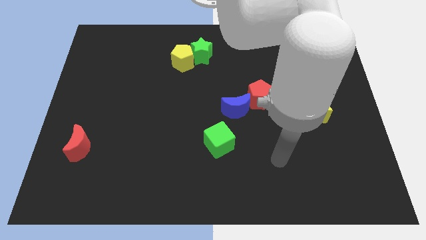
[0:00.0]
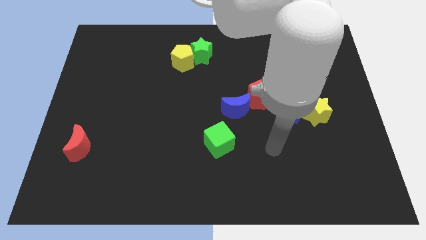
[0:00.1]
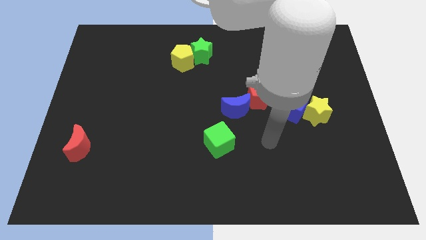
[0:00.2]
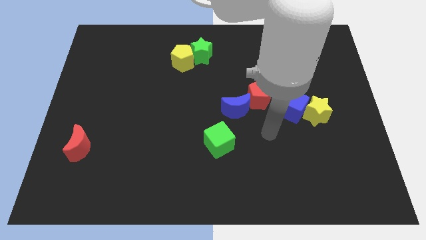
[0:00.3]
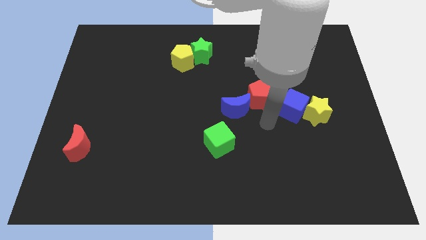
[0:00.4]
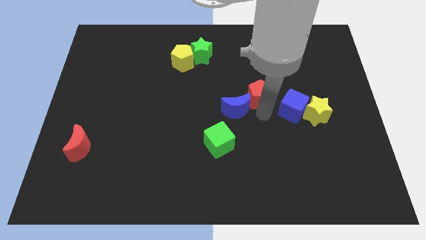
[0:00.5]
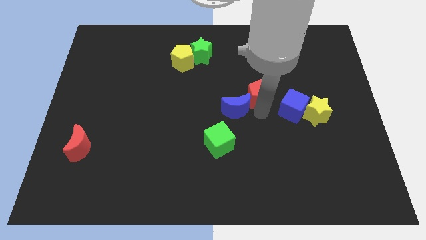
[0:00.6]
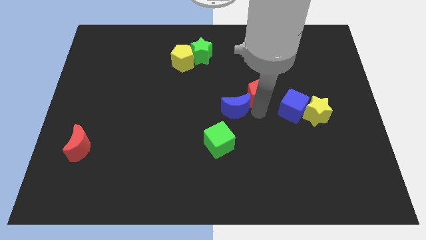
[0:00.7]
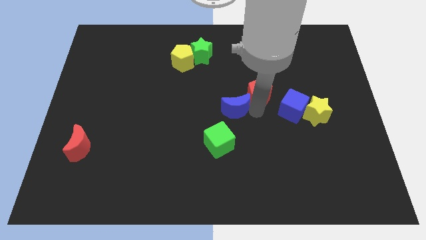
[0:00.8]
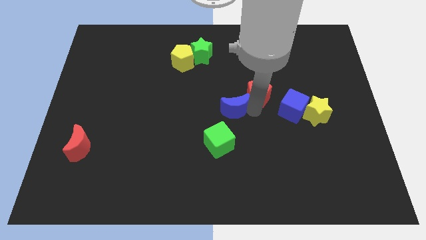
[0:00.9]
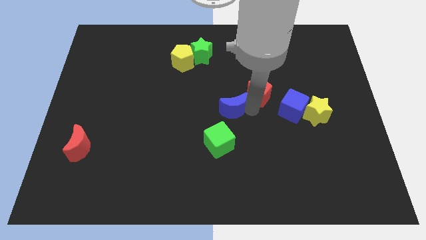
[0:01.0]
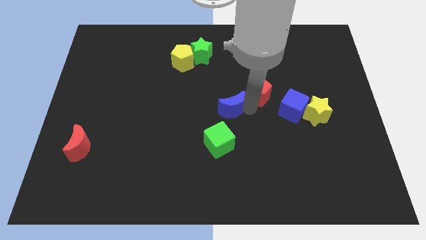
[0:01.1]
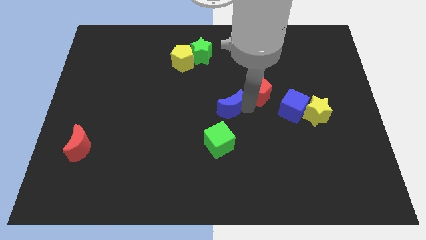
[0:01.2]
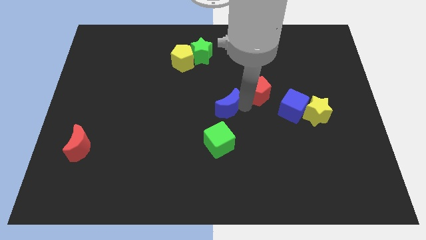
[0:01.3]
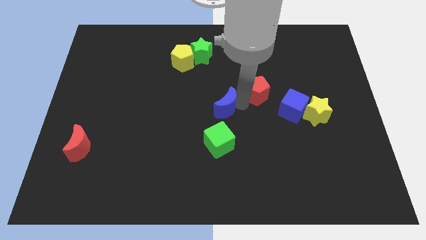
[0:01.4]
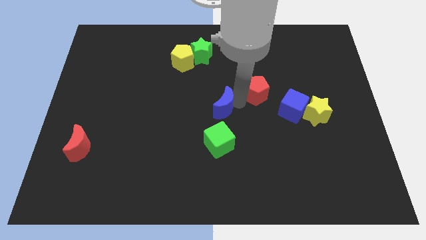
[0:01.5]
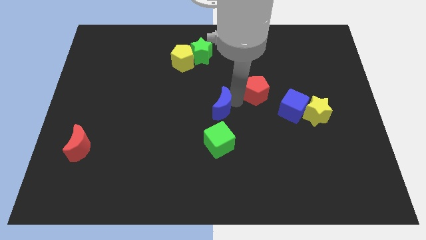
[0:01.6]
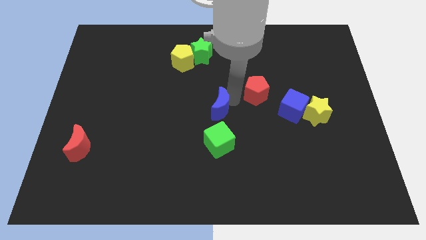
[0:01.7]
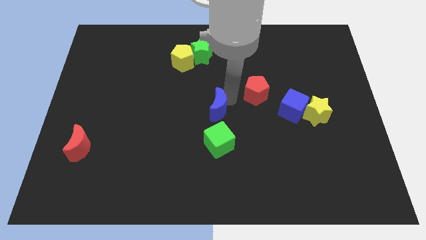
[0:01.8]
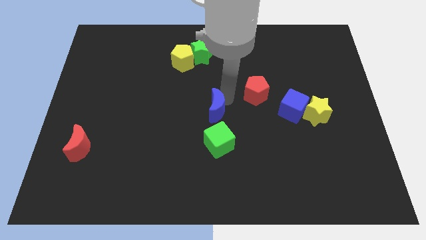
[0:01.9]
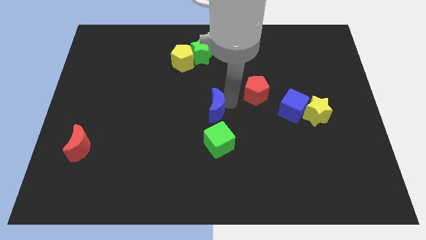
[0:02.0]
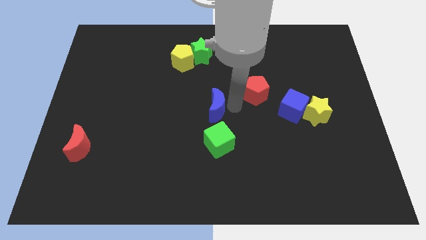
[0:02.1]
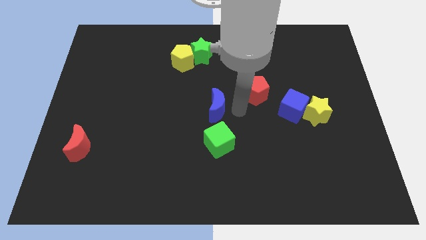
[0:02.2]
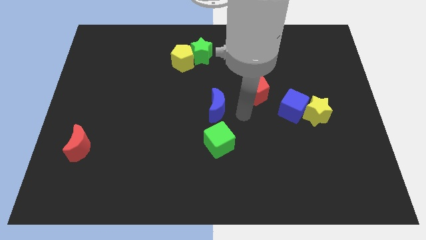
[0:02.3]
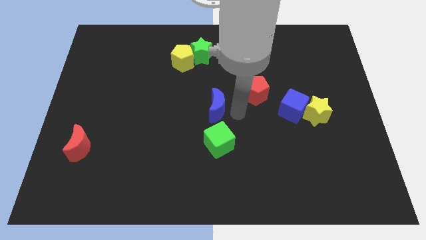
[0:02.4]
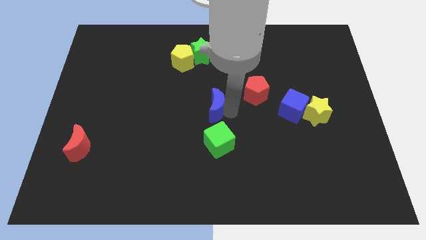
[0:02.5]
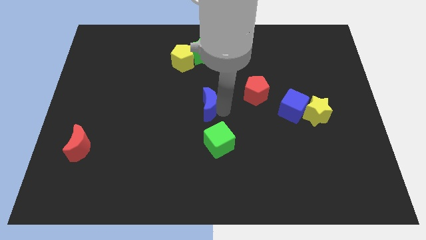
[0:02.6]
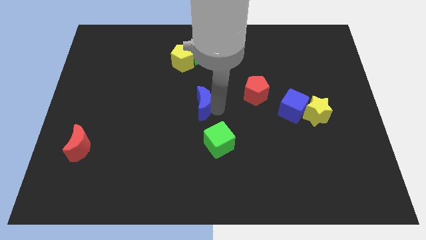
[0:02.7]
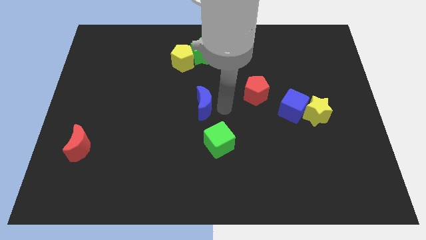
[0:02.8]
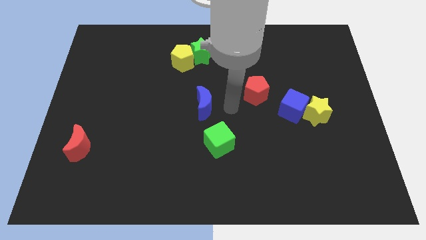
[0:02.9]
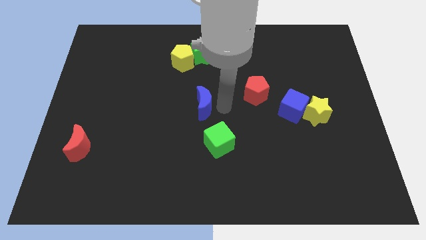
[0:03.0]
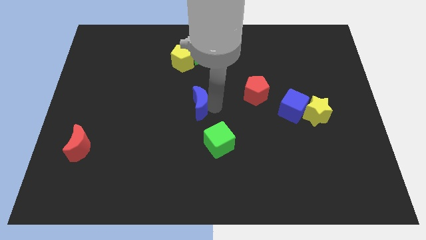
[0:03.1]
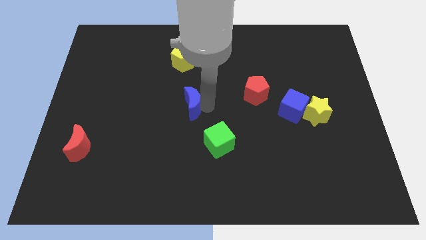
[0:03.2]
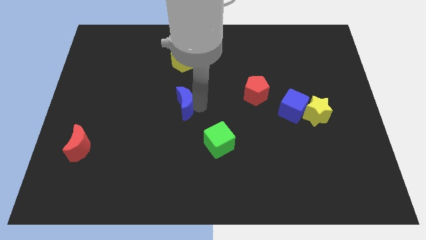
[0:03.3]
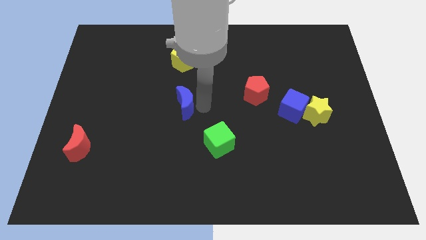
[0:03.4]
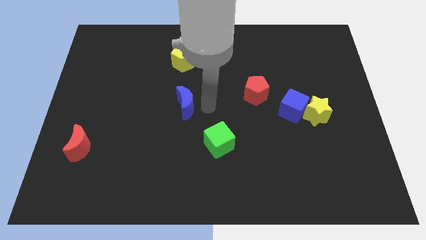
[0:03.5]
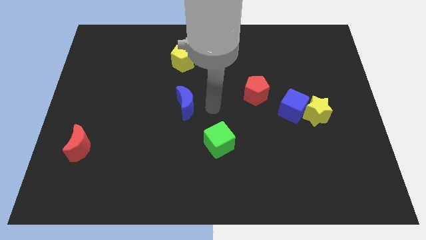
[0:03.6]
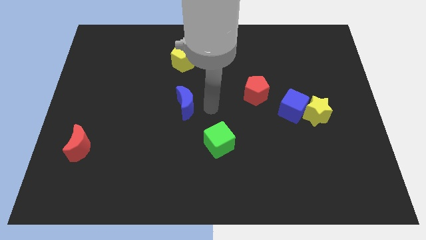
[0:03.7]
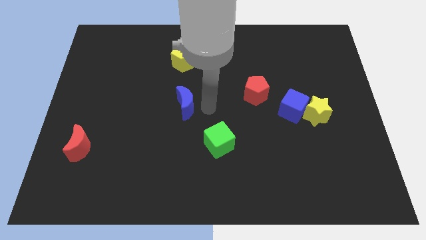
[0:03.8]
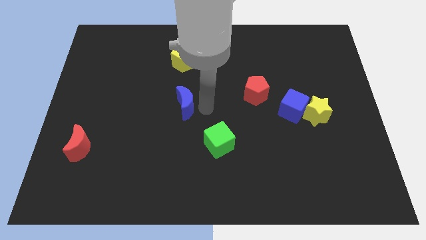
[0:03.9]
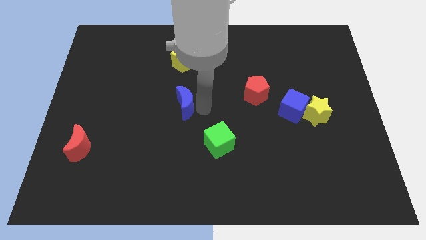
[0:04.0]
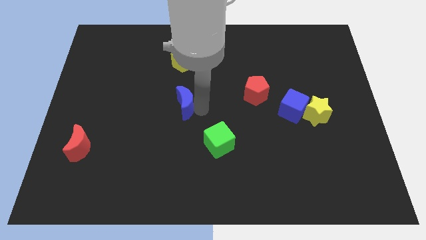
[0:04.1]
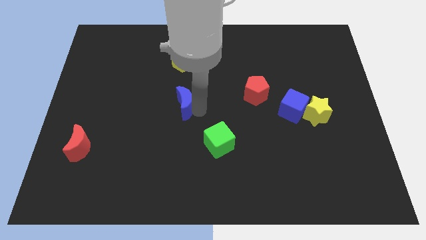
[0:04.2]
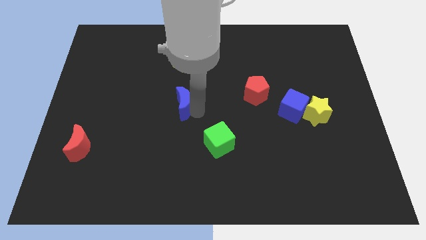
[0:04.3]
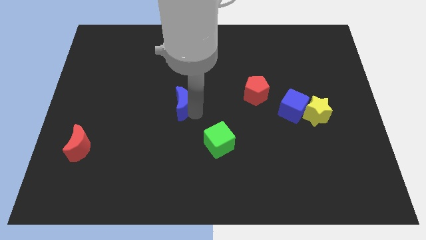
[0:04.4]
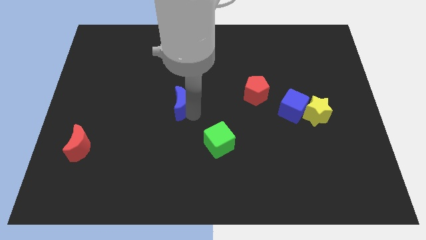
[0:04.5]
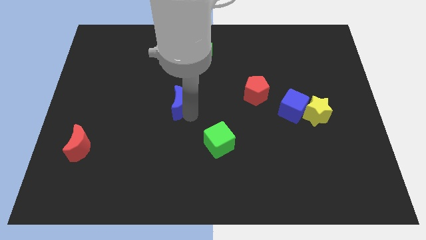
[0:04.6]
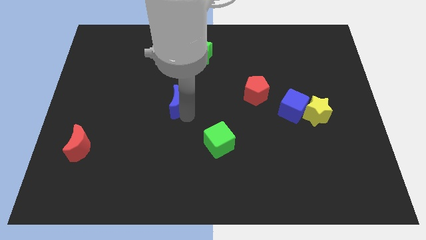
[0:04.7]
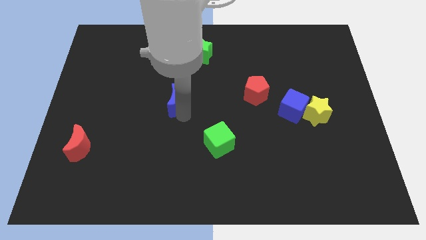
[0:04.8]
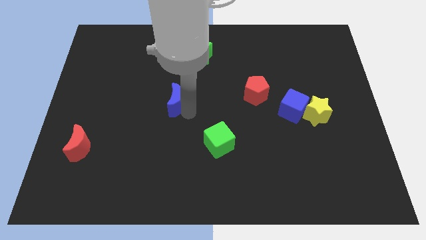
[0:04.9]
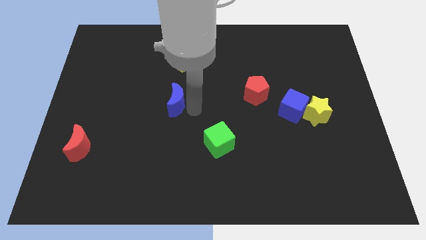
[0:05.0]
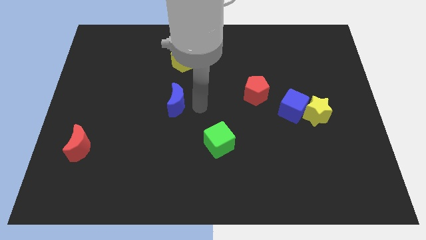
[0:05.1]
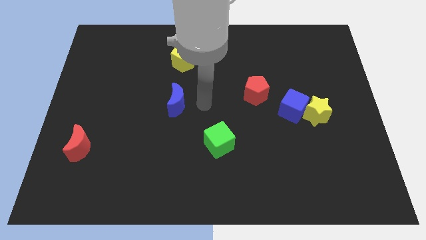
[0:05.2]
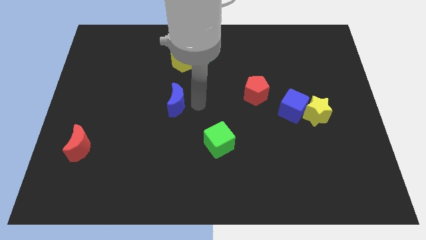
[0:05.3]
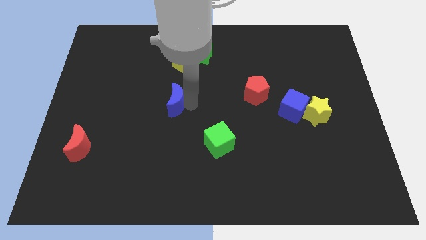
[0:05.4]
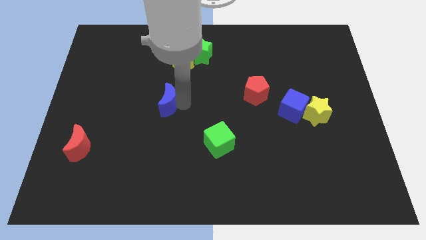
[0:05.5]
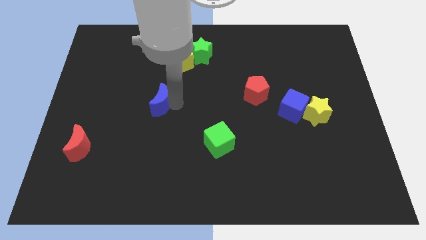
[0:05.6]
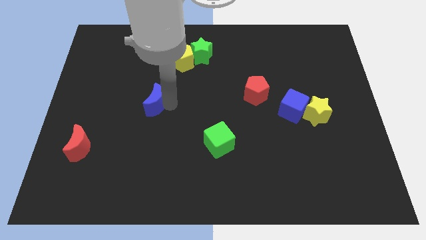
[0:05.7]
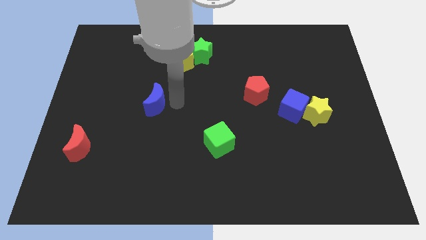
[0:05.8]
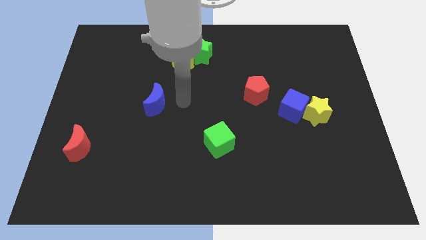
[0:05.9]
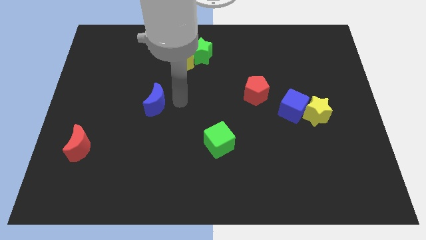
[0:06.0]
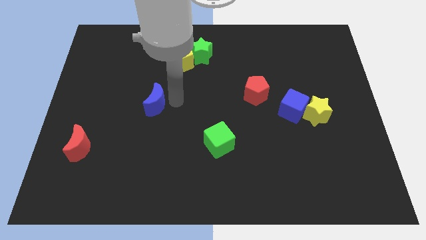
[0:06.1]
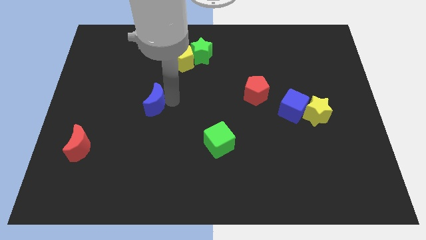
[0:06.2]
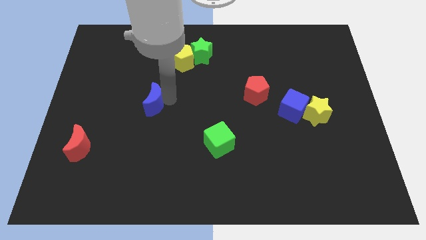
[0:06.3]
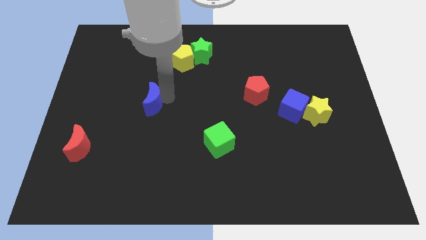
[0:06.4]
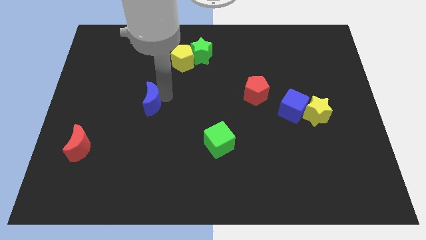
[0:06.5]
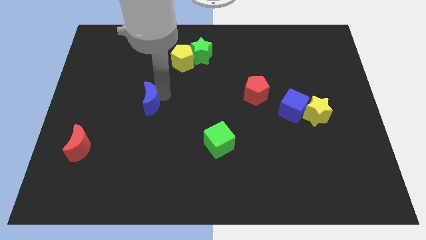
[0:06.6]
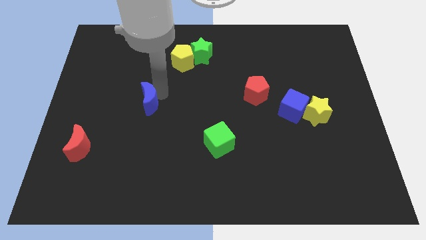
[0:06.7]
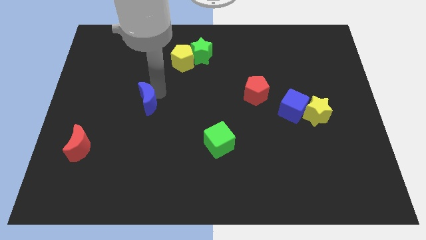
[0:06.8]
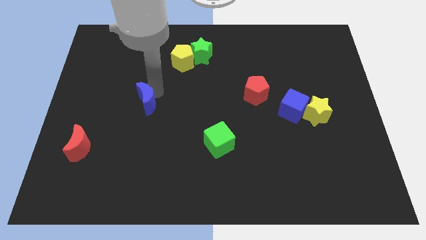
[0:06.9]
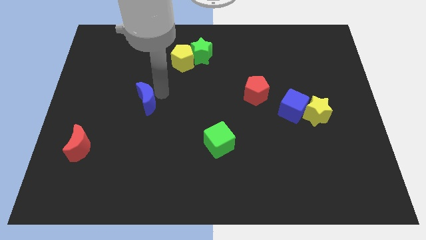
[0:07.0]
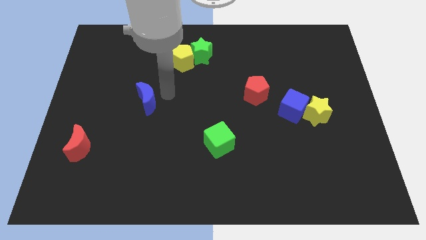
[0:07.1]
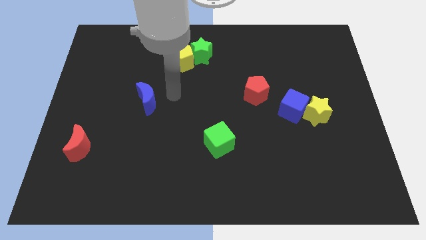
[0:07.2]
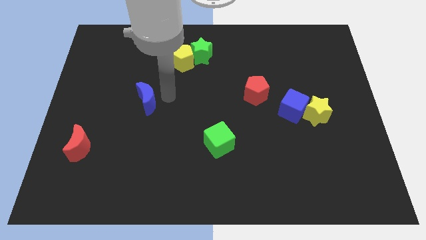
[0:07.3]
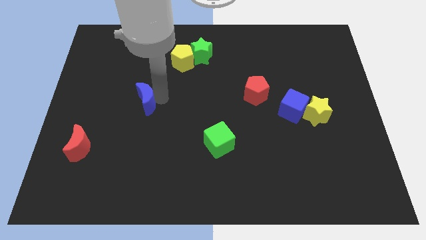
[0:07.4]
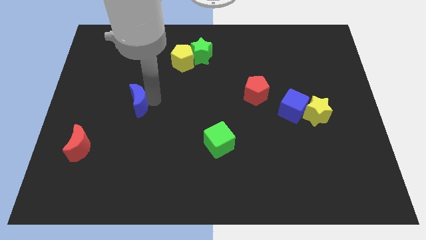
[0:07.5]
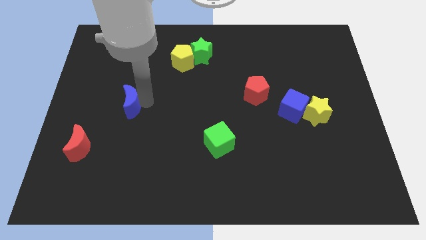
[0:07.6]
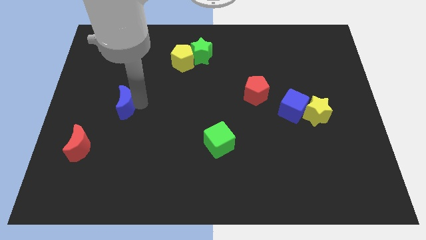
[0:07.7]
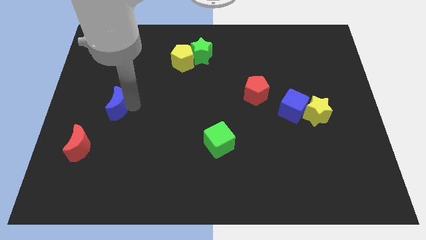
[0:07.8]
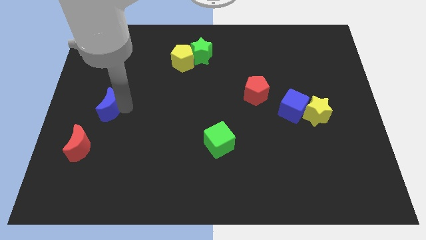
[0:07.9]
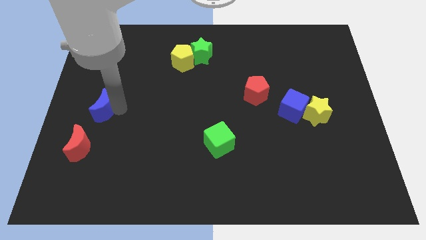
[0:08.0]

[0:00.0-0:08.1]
slide the blue moon to the center left
